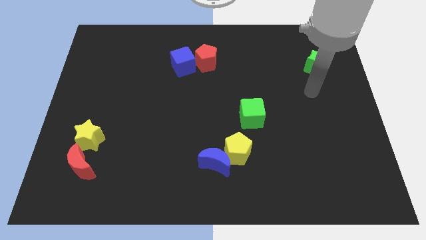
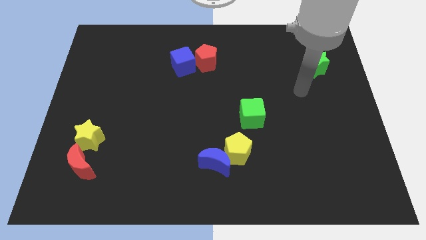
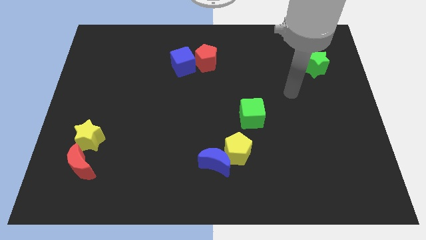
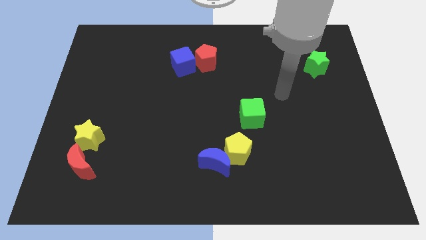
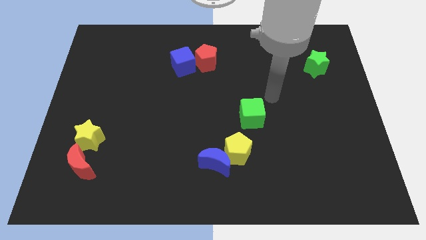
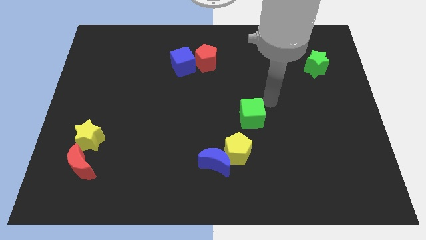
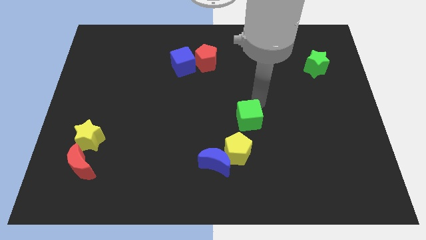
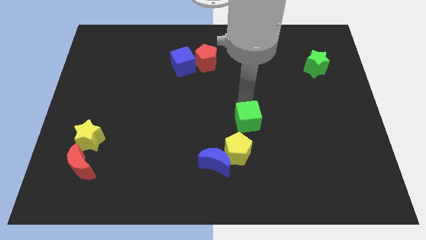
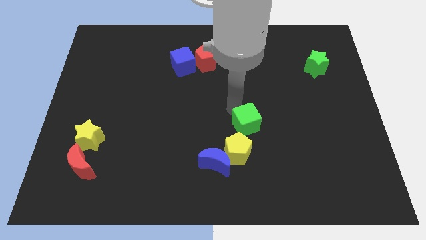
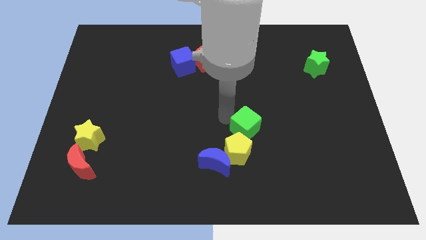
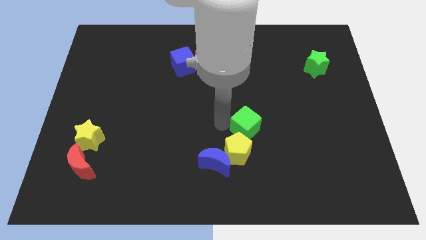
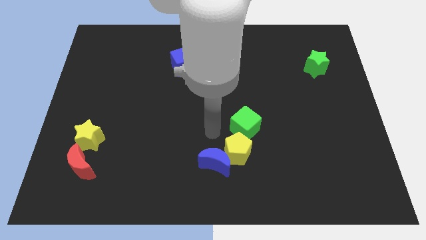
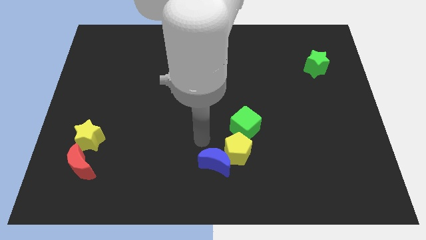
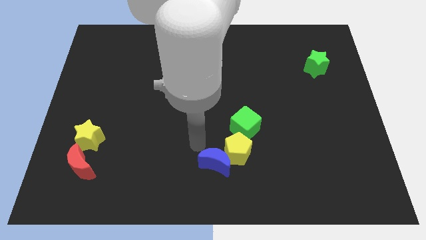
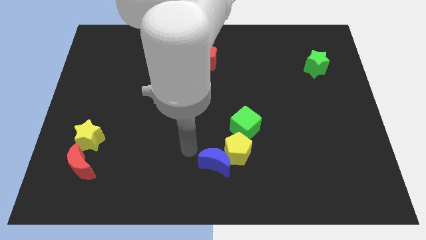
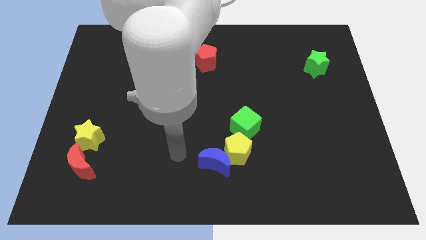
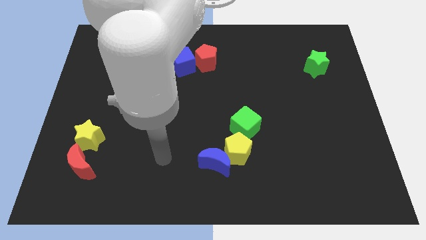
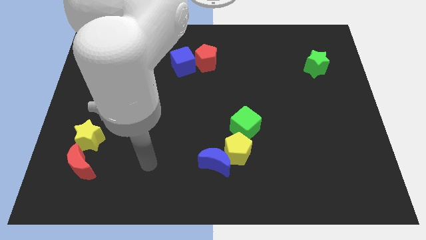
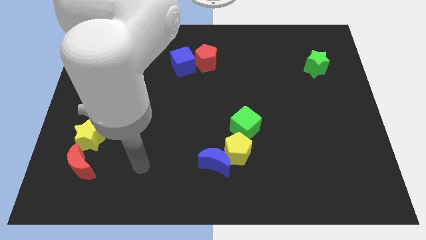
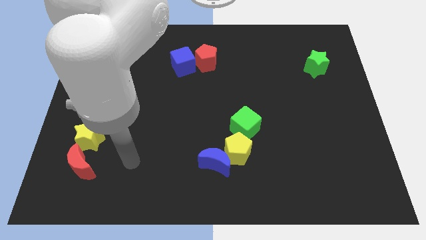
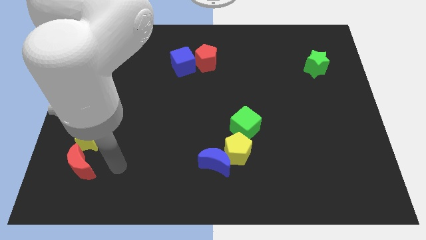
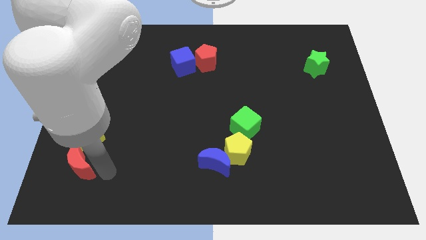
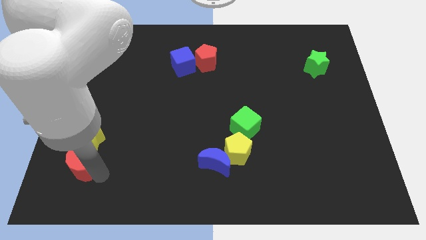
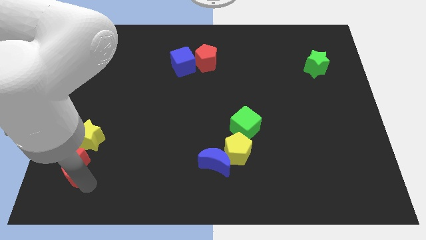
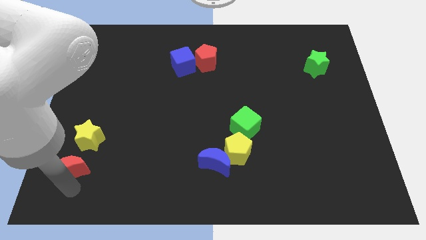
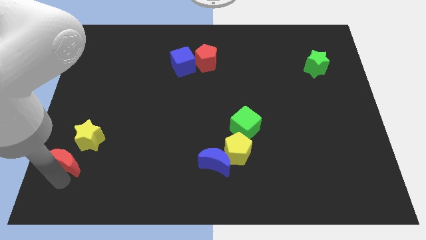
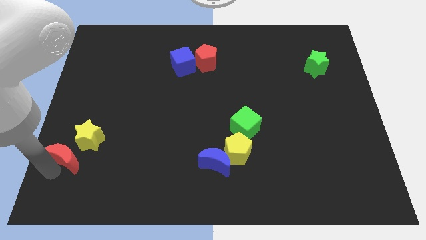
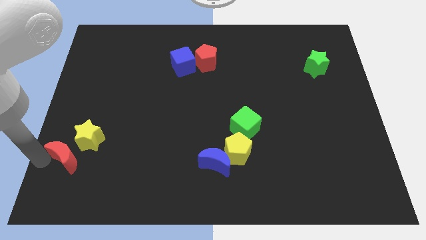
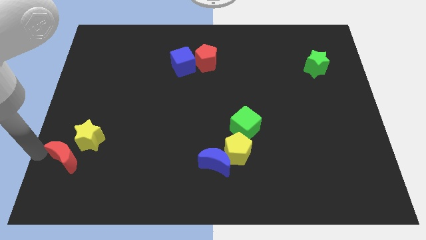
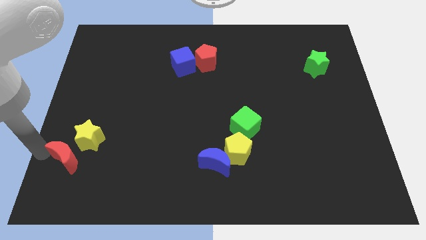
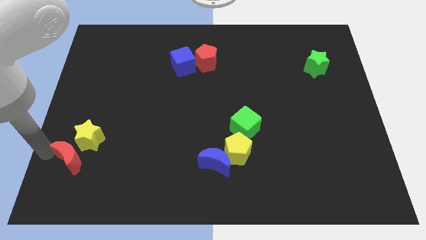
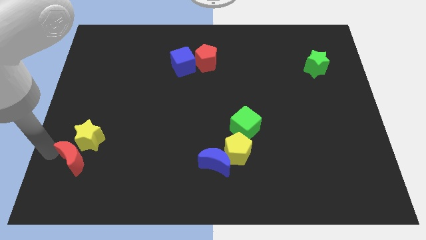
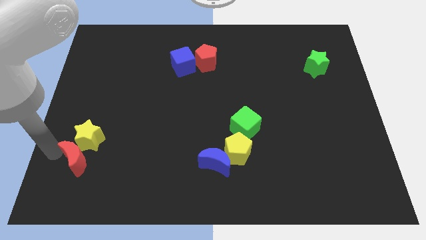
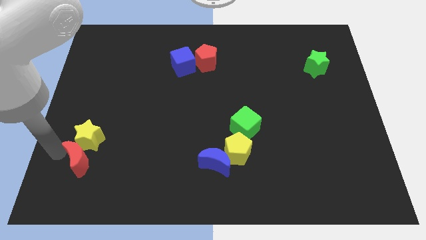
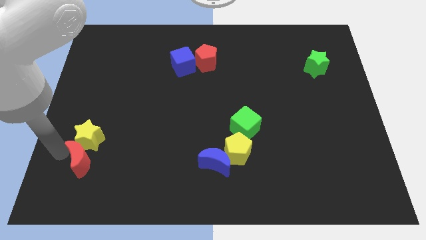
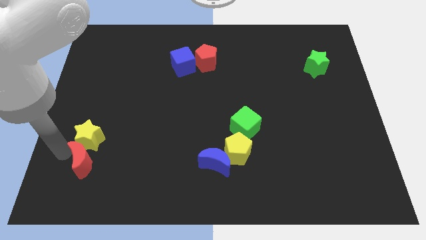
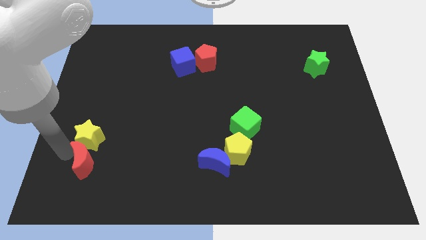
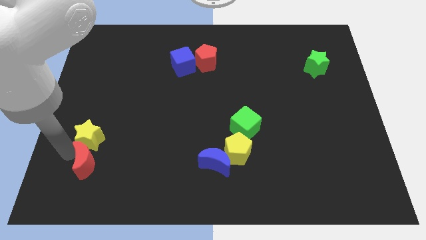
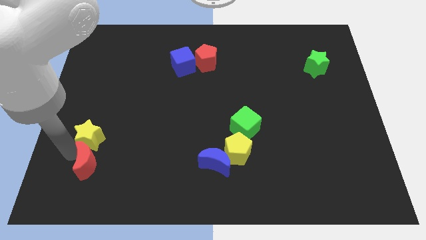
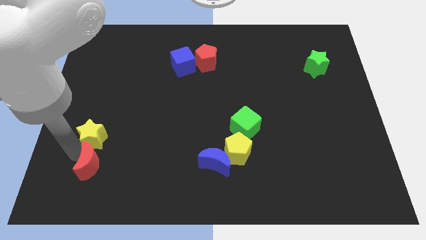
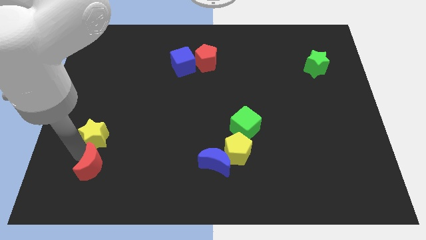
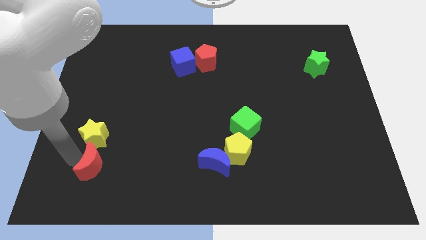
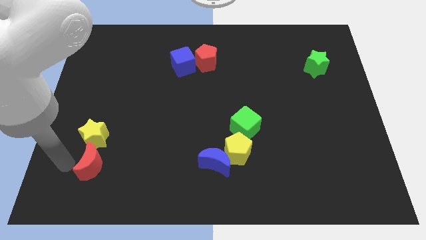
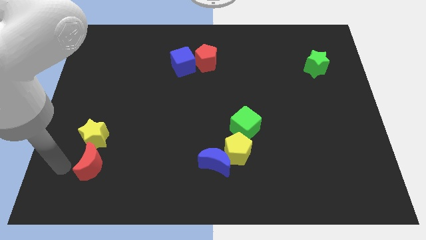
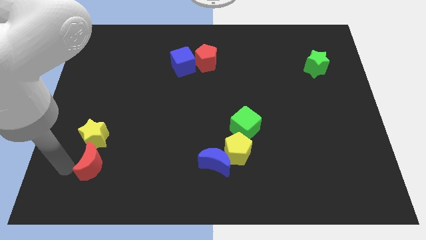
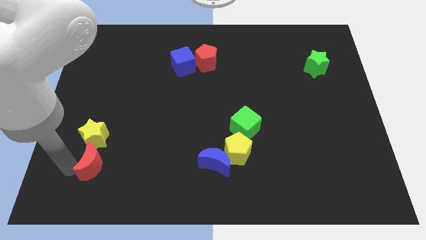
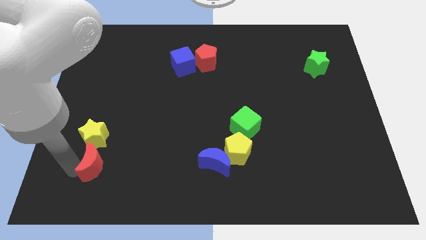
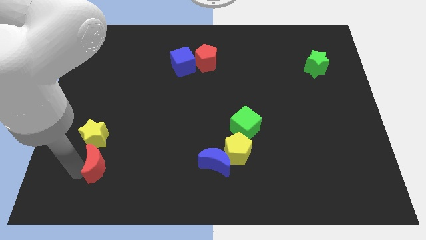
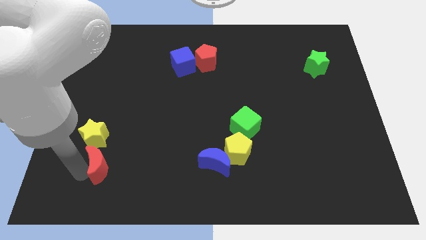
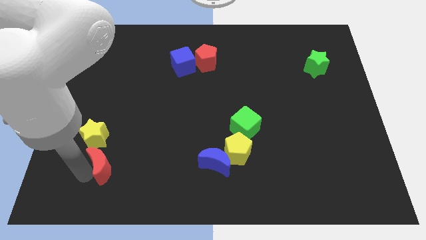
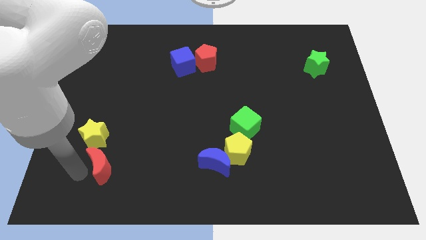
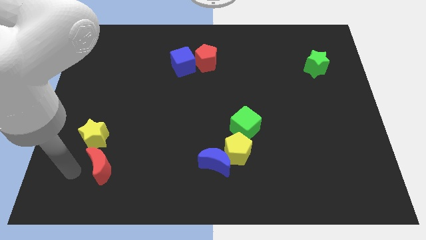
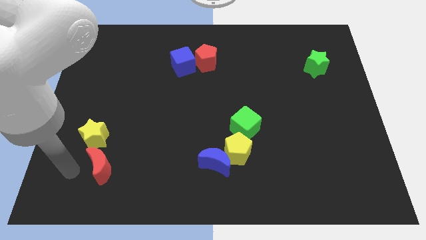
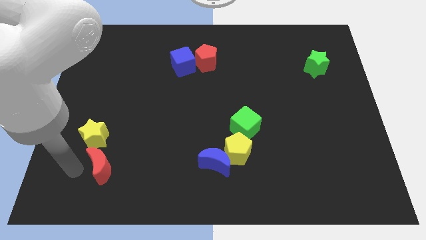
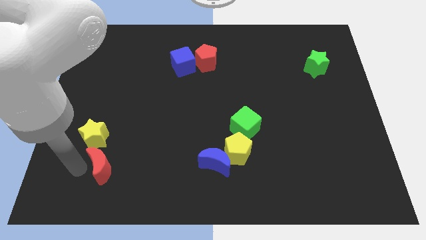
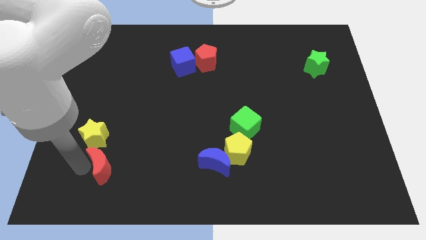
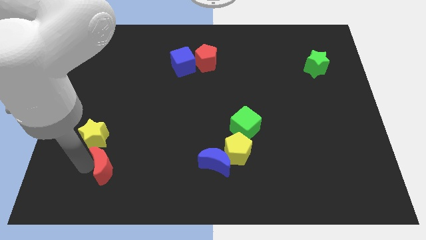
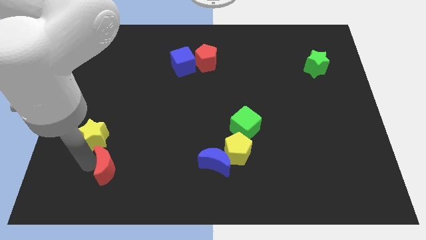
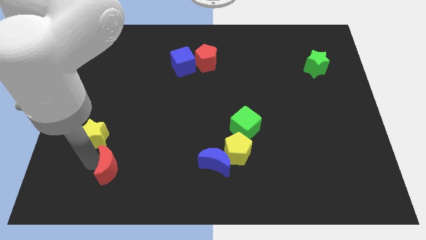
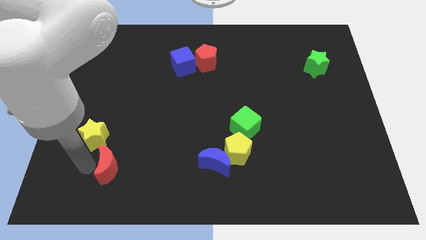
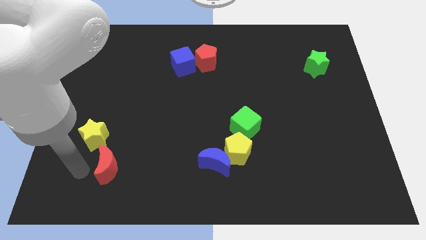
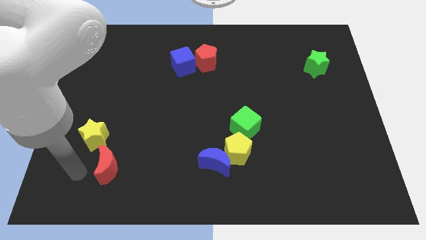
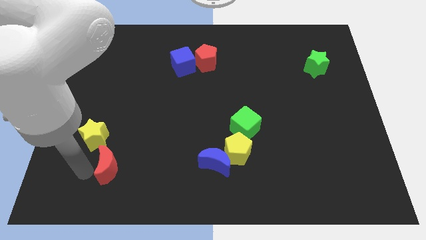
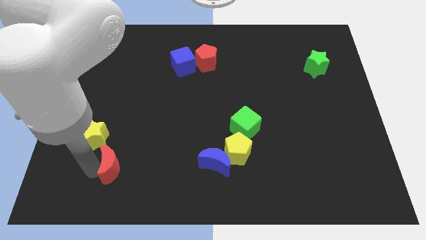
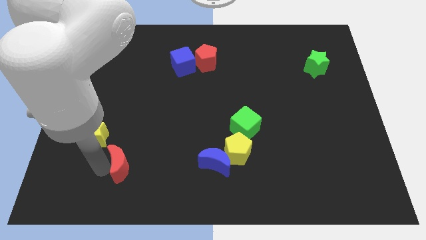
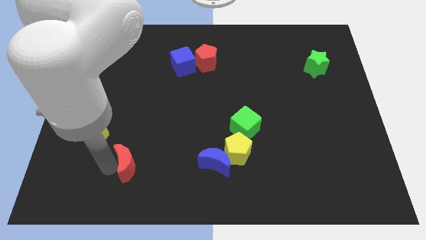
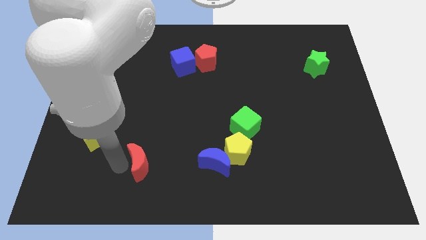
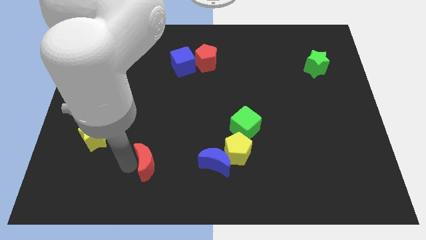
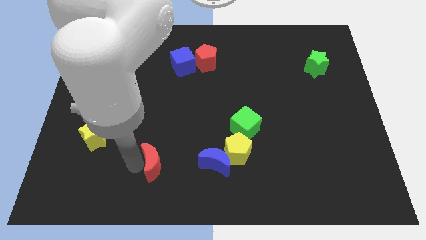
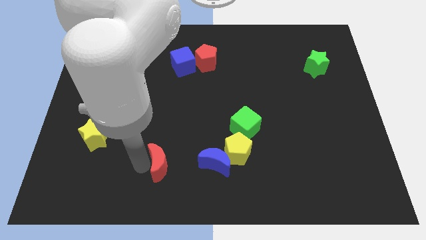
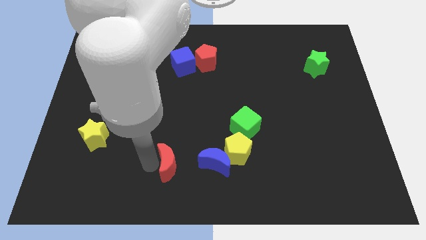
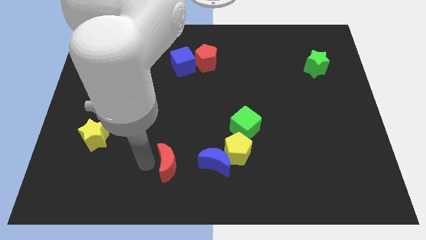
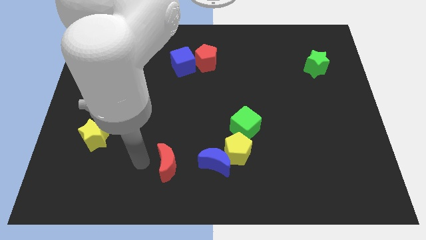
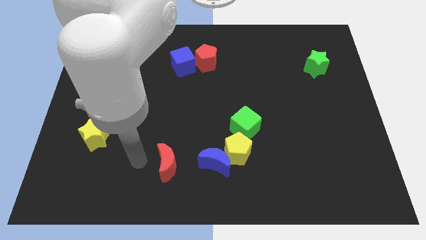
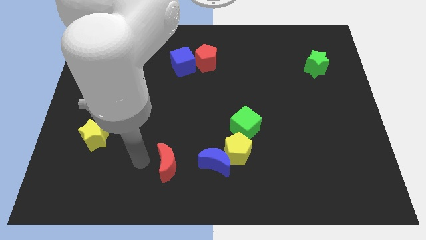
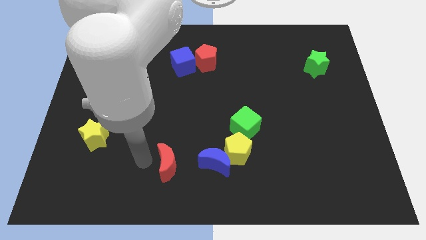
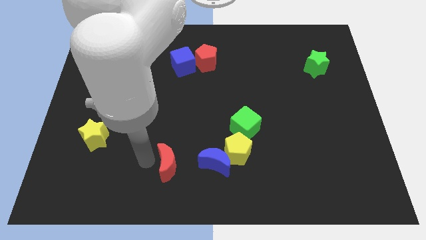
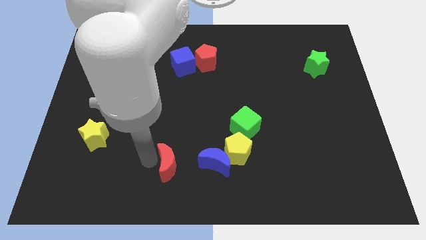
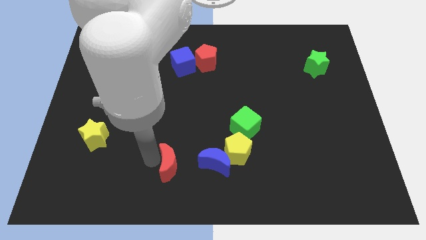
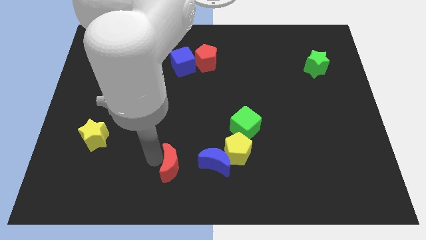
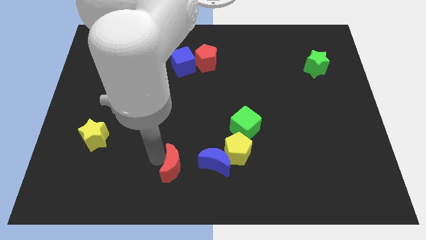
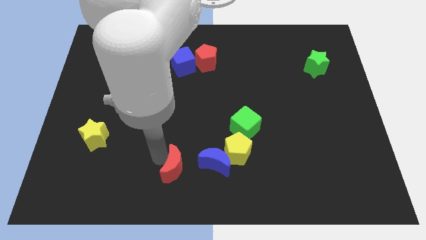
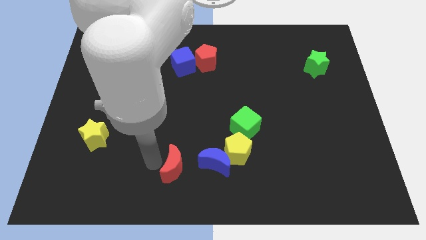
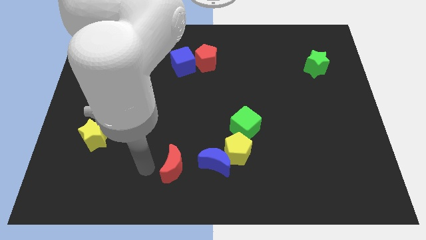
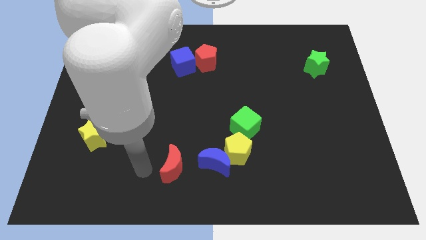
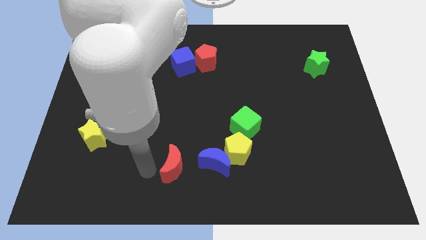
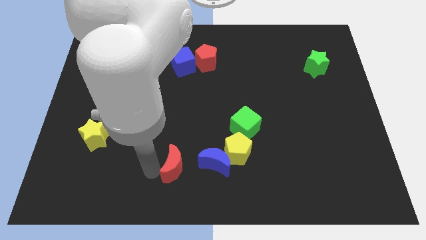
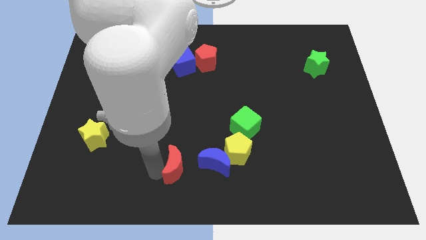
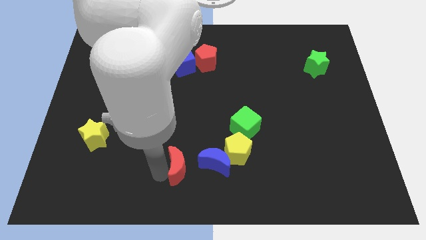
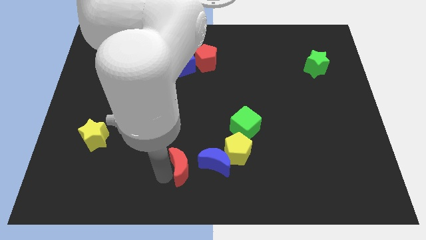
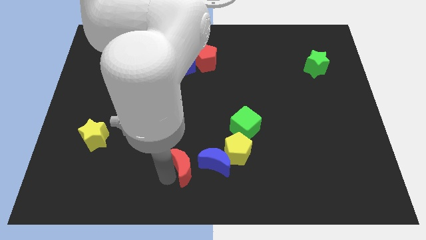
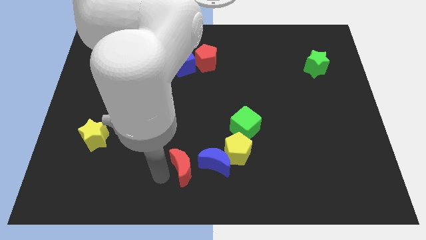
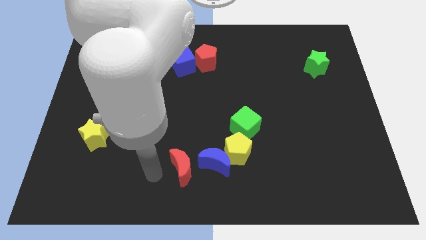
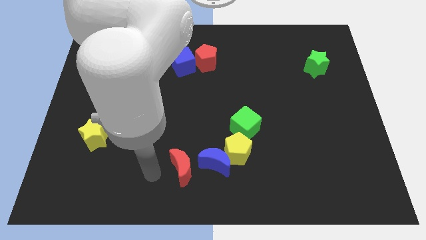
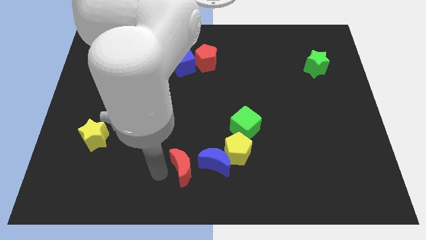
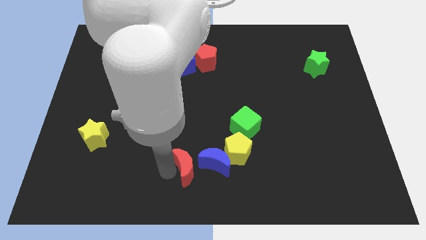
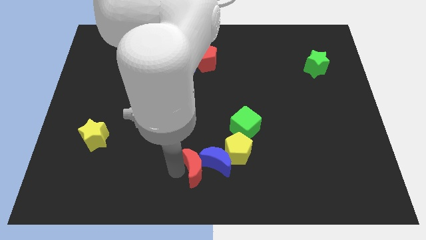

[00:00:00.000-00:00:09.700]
push the red moon towards the blue moon
